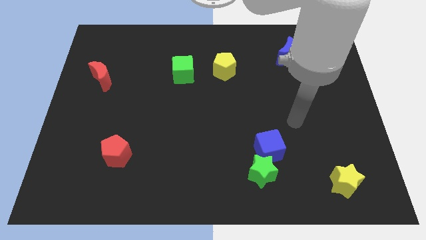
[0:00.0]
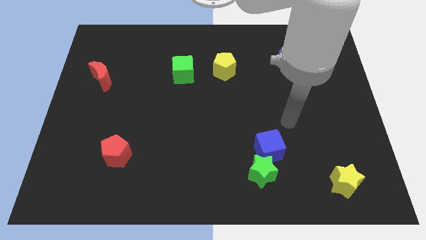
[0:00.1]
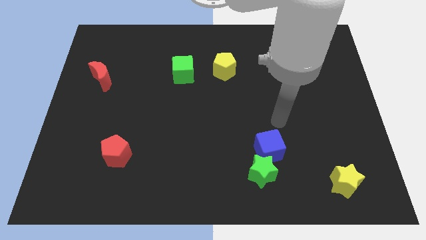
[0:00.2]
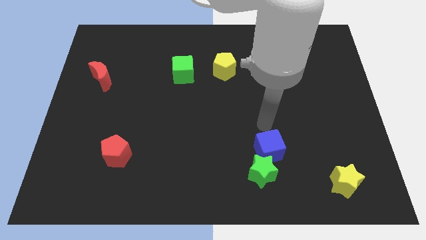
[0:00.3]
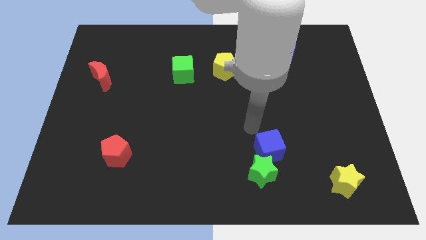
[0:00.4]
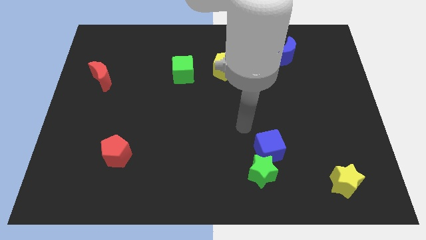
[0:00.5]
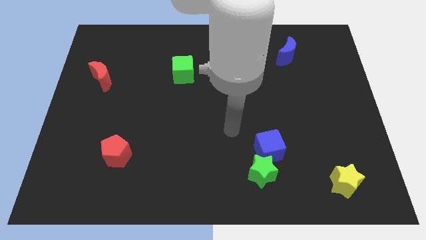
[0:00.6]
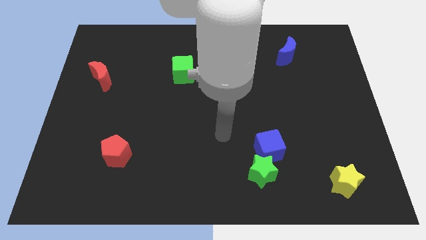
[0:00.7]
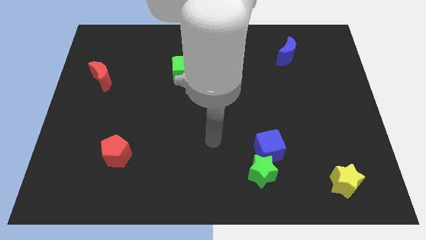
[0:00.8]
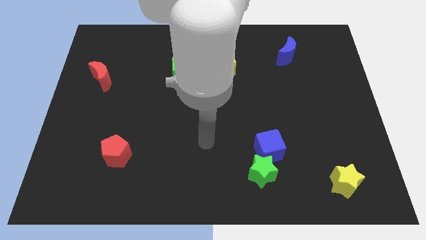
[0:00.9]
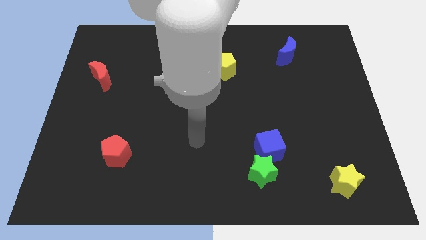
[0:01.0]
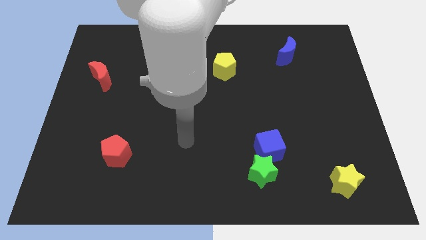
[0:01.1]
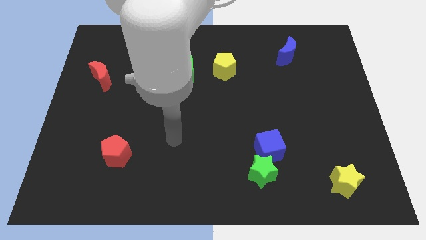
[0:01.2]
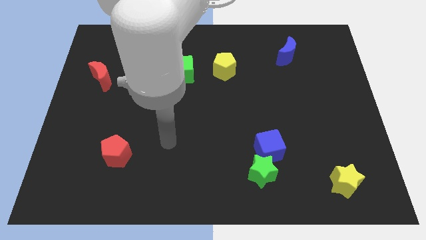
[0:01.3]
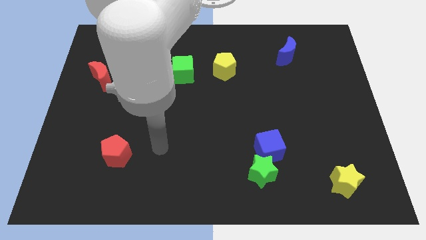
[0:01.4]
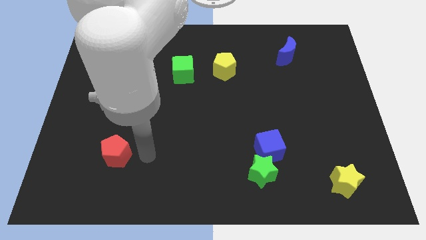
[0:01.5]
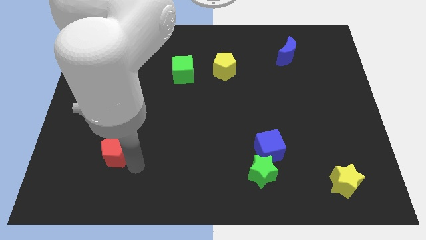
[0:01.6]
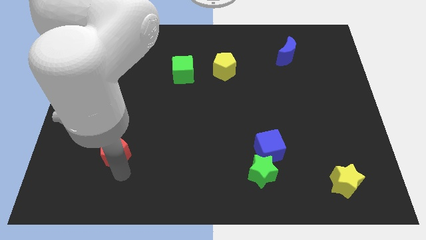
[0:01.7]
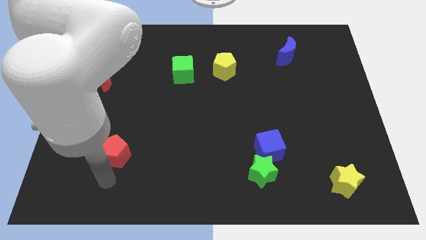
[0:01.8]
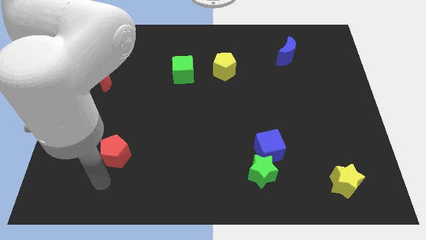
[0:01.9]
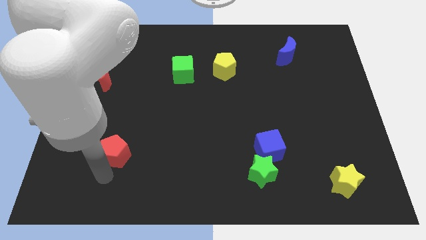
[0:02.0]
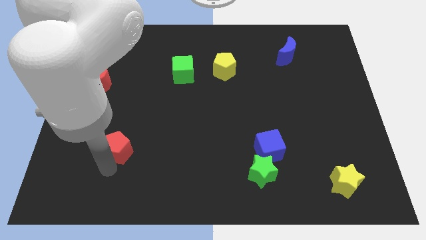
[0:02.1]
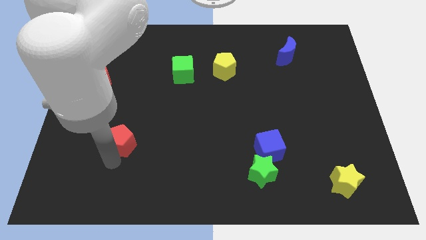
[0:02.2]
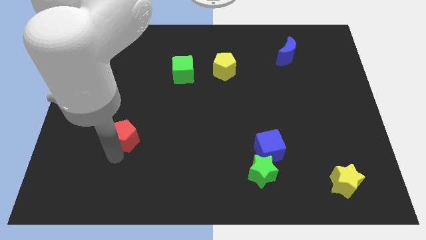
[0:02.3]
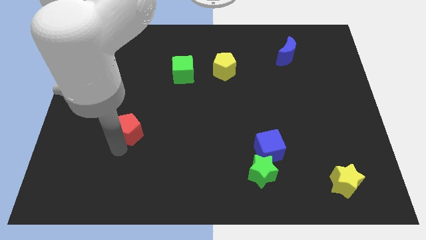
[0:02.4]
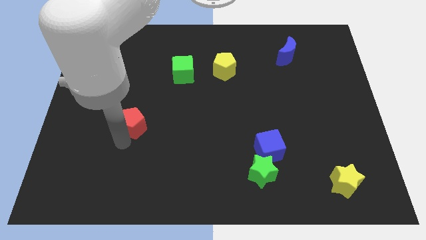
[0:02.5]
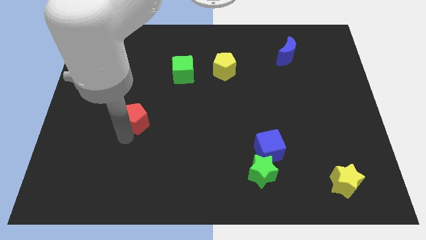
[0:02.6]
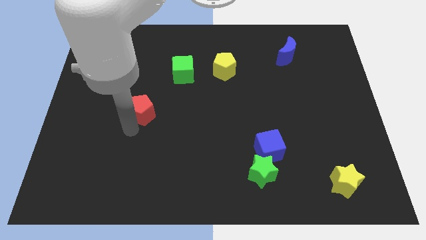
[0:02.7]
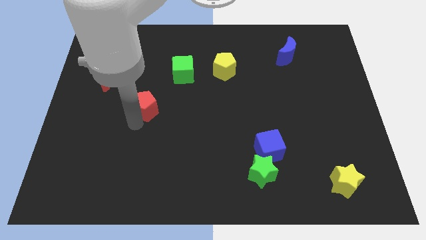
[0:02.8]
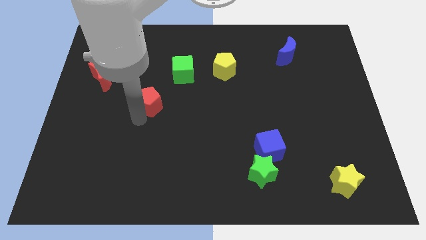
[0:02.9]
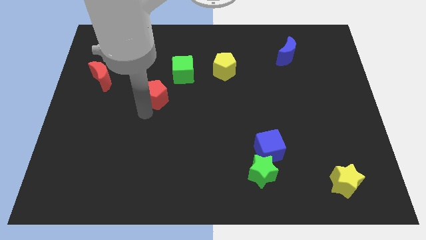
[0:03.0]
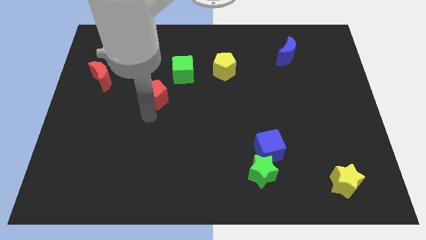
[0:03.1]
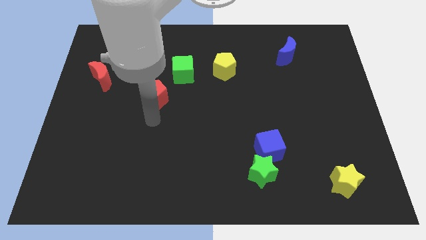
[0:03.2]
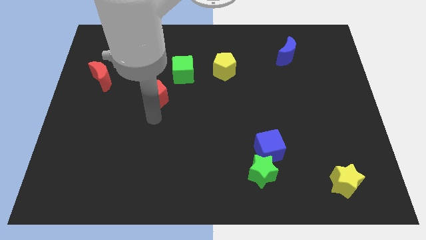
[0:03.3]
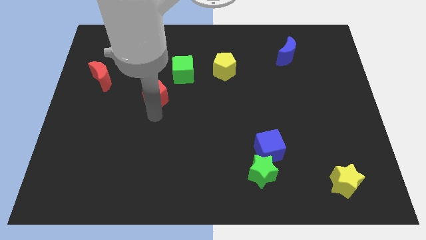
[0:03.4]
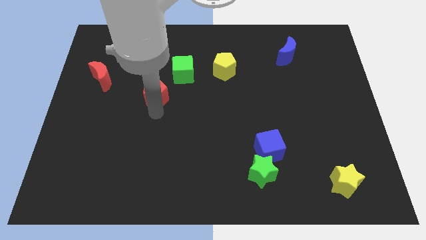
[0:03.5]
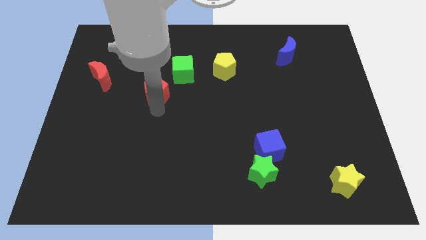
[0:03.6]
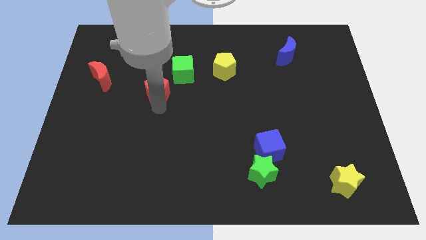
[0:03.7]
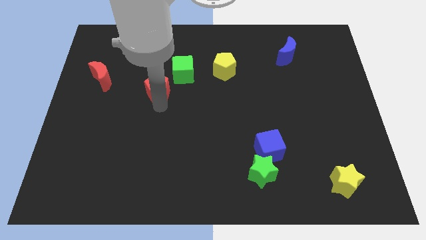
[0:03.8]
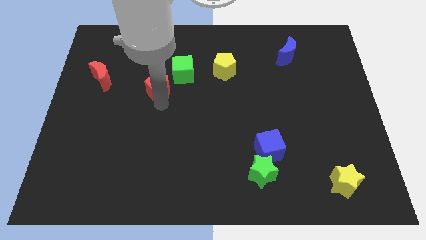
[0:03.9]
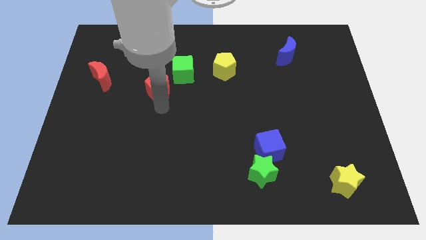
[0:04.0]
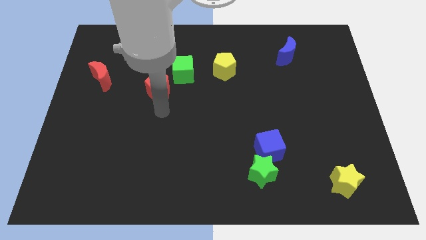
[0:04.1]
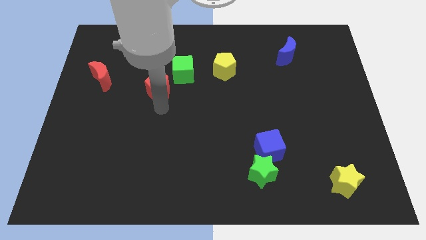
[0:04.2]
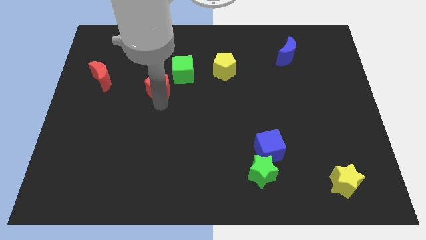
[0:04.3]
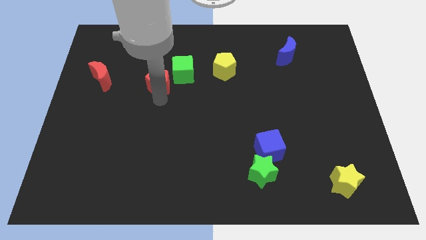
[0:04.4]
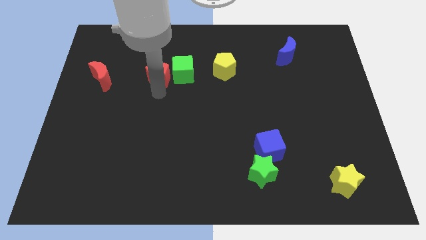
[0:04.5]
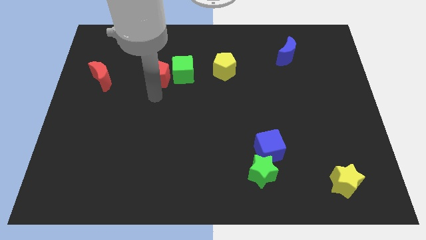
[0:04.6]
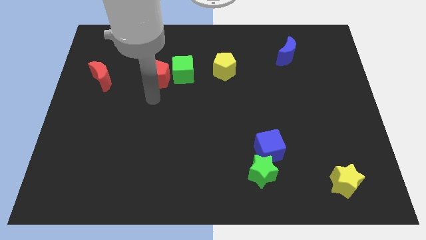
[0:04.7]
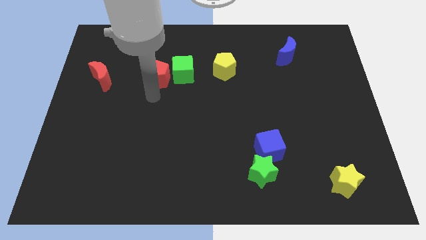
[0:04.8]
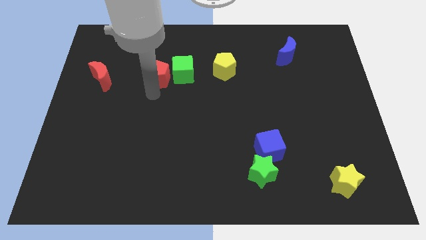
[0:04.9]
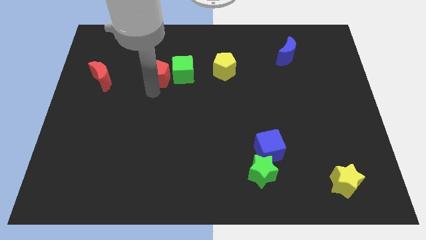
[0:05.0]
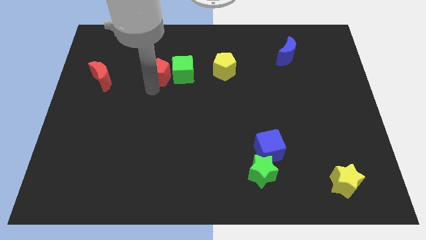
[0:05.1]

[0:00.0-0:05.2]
push the red pentagon to the top left of the green cube

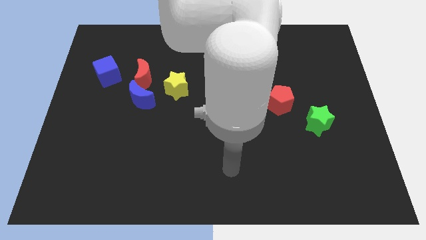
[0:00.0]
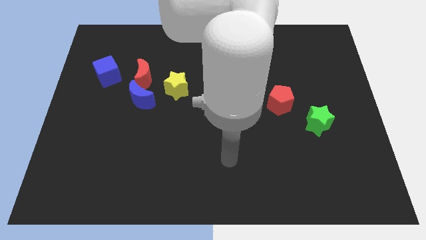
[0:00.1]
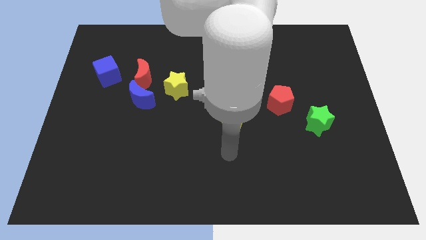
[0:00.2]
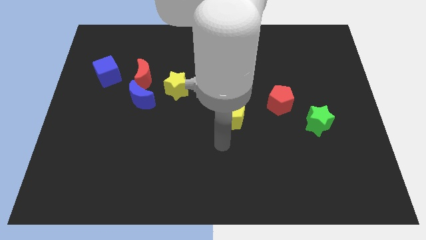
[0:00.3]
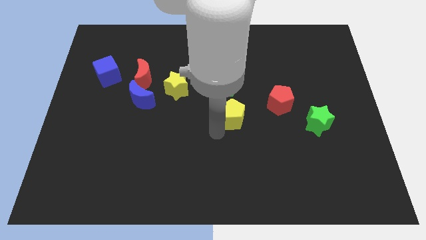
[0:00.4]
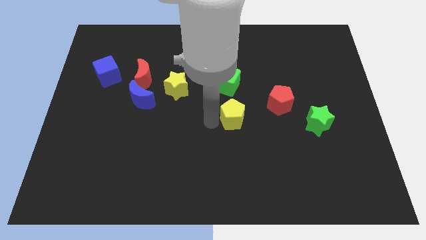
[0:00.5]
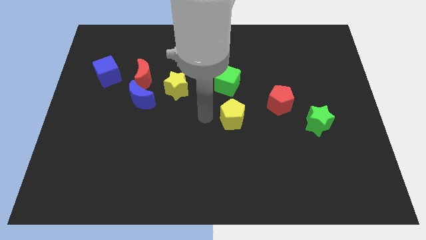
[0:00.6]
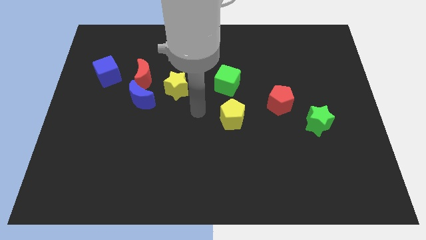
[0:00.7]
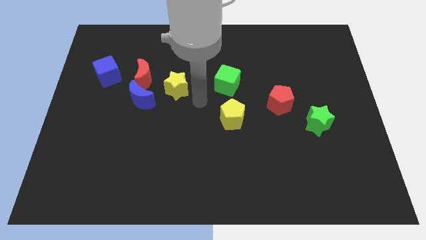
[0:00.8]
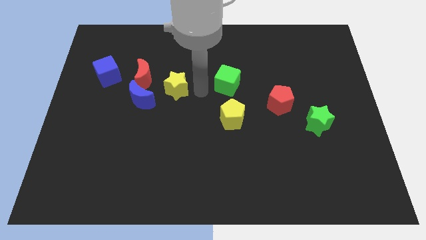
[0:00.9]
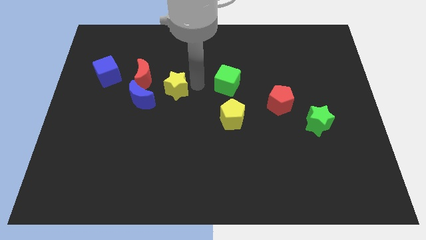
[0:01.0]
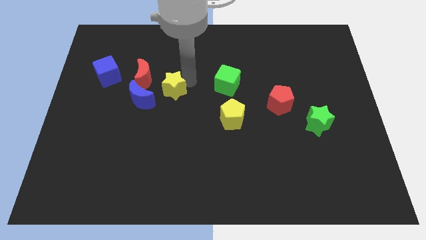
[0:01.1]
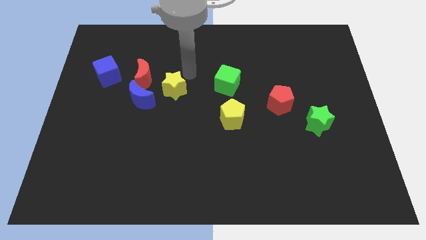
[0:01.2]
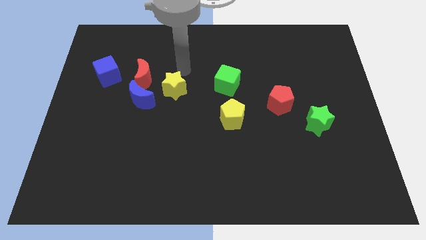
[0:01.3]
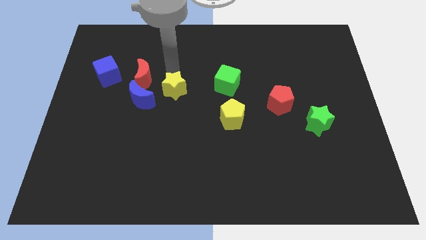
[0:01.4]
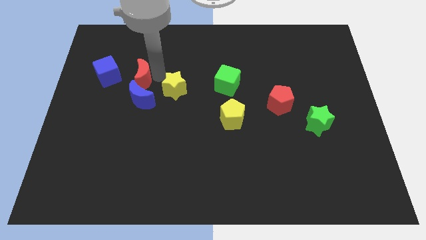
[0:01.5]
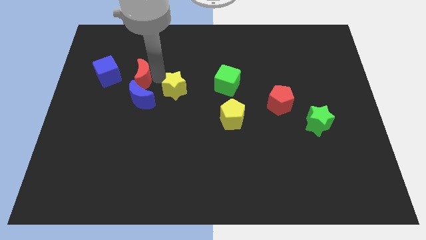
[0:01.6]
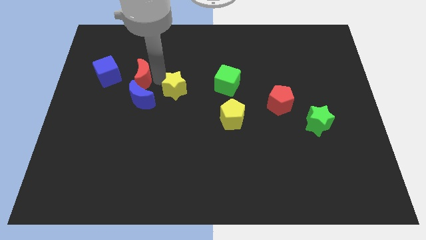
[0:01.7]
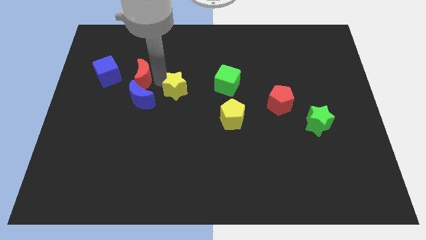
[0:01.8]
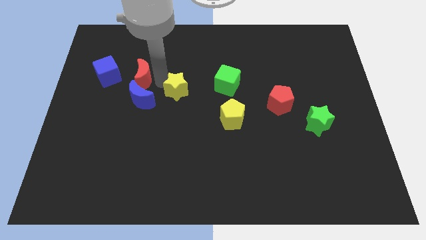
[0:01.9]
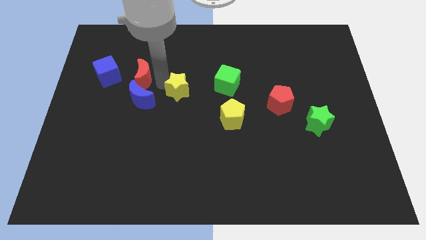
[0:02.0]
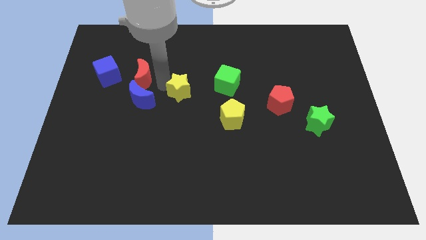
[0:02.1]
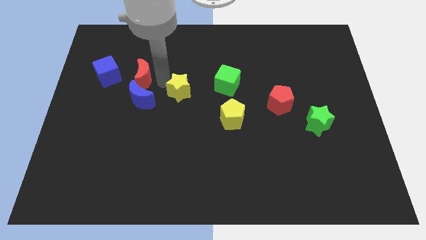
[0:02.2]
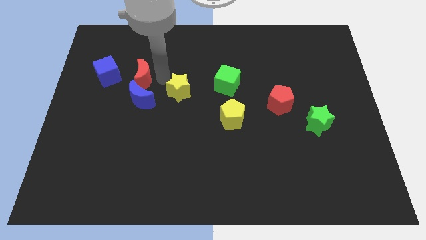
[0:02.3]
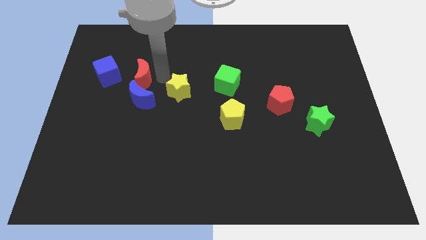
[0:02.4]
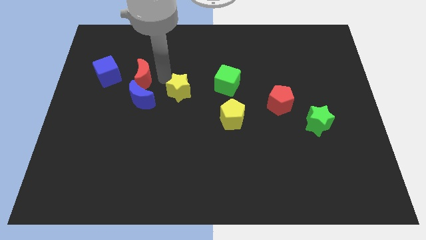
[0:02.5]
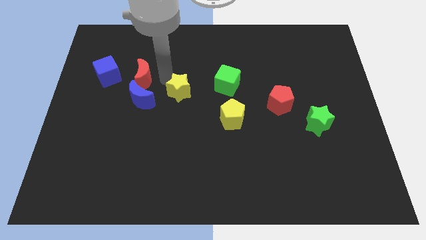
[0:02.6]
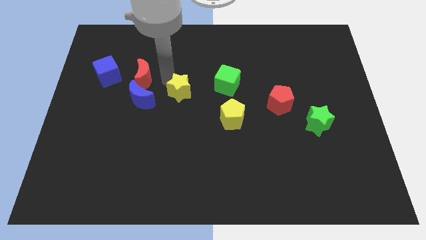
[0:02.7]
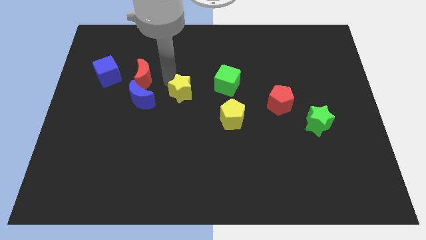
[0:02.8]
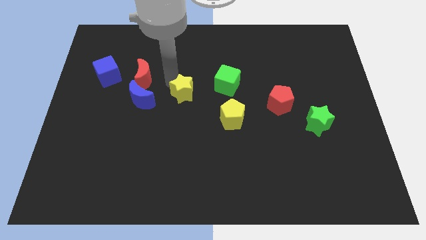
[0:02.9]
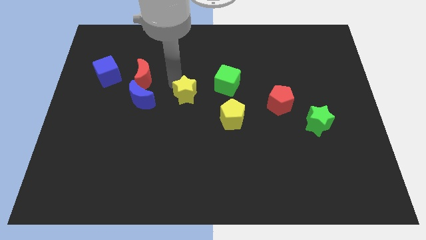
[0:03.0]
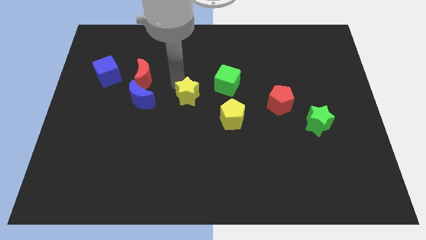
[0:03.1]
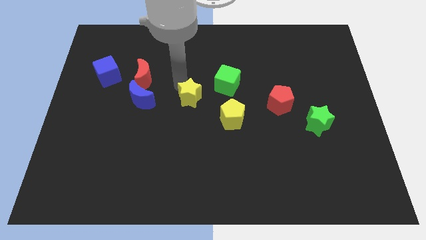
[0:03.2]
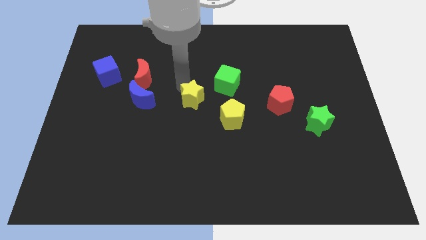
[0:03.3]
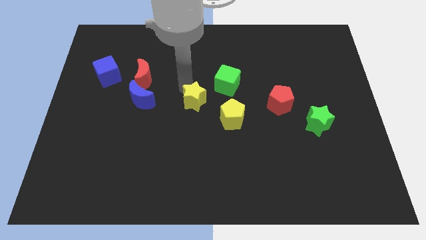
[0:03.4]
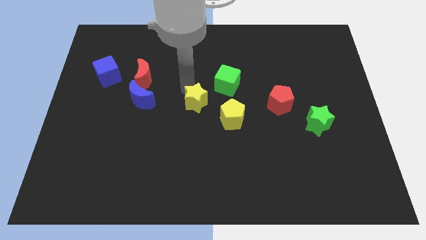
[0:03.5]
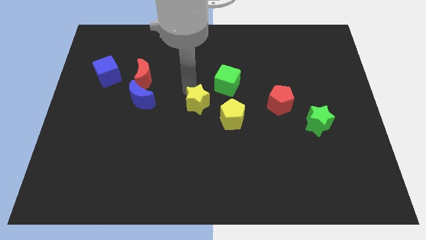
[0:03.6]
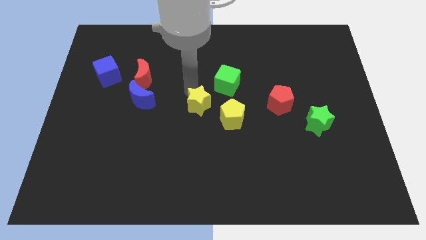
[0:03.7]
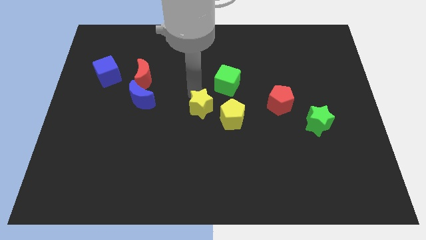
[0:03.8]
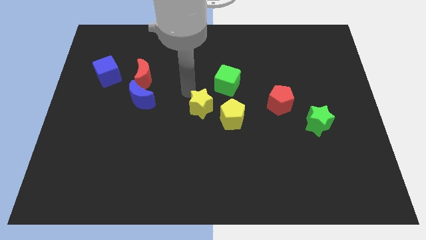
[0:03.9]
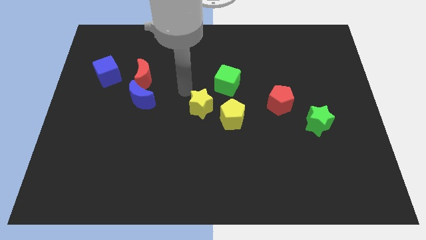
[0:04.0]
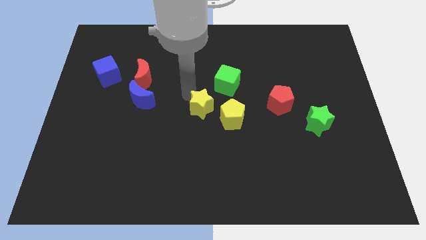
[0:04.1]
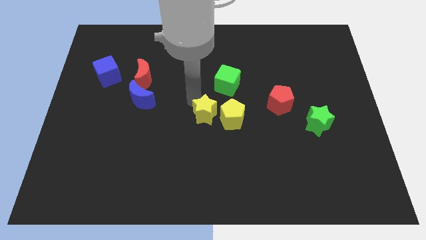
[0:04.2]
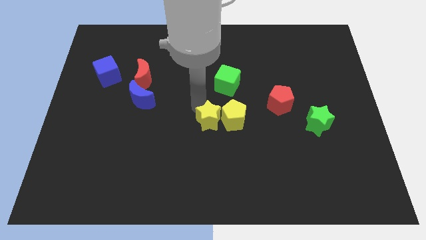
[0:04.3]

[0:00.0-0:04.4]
push the yellow star to the bottom of the green cube
